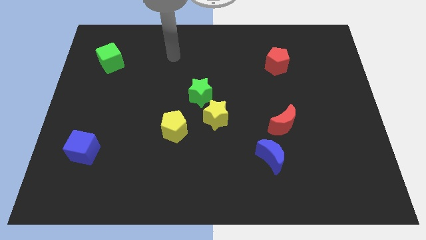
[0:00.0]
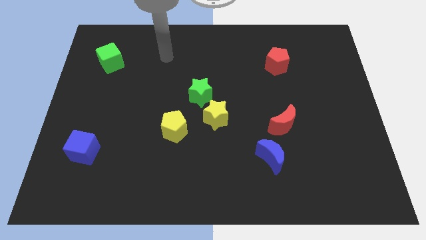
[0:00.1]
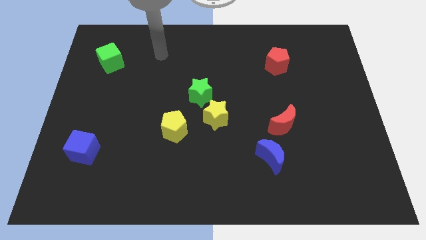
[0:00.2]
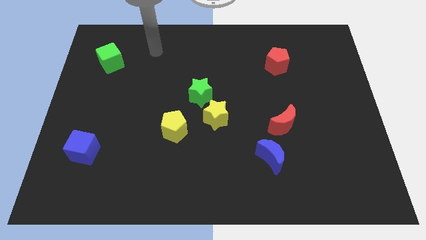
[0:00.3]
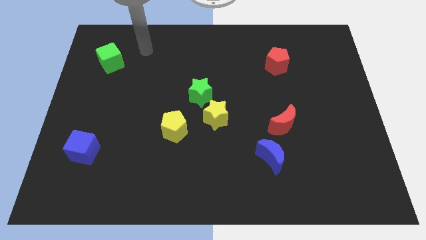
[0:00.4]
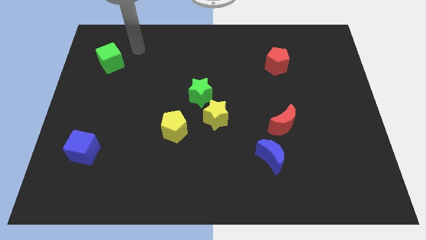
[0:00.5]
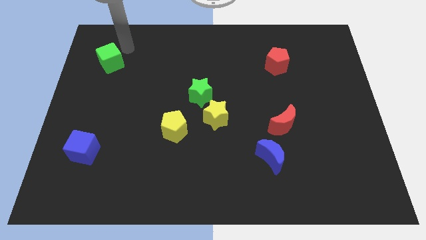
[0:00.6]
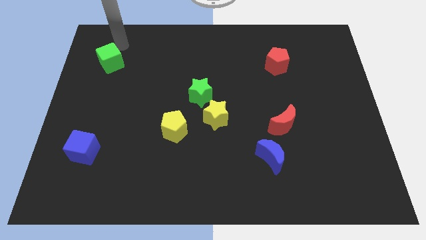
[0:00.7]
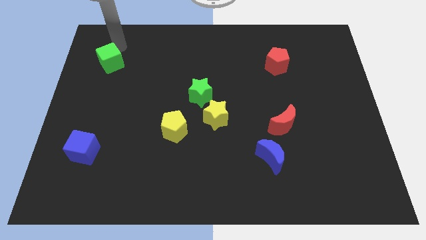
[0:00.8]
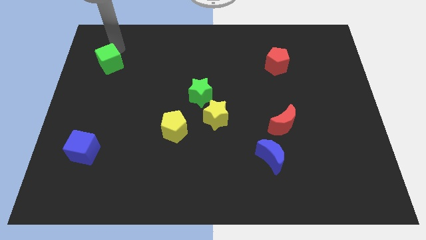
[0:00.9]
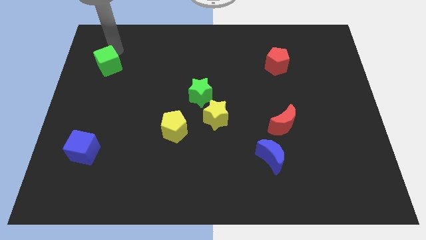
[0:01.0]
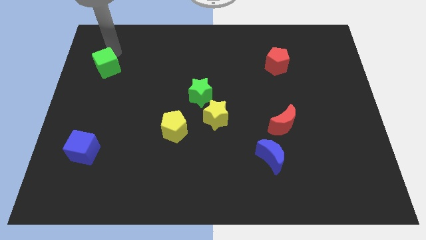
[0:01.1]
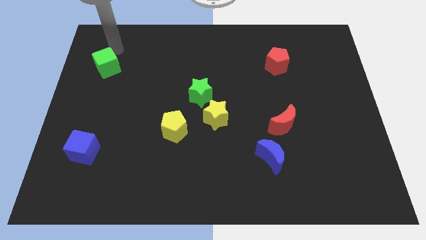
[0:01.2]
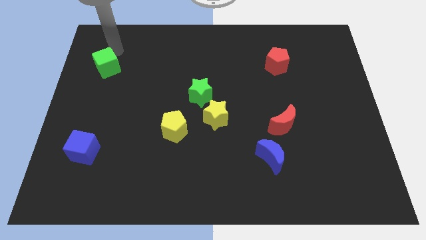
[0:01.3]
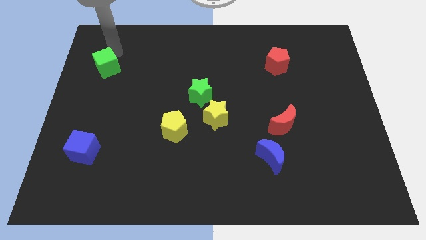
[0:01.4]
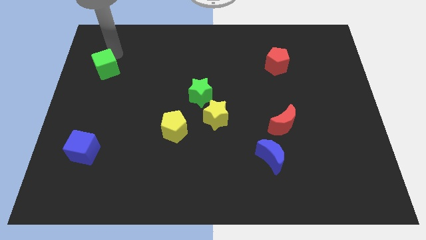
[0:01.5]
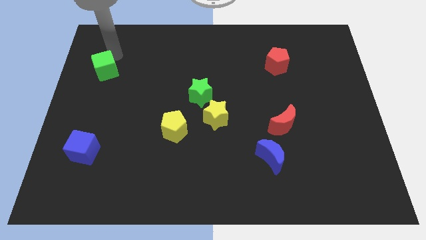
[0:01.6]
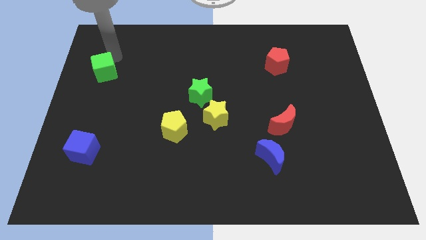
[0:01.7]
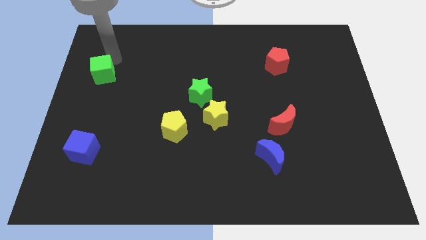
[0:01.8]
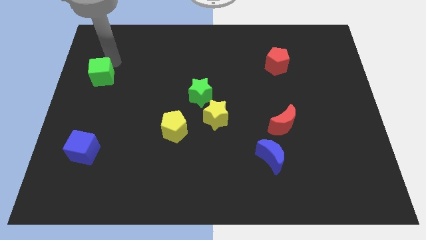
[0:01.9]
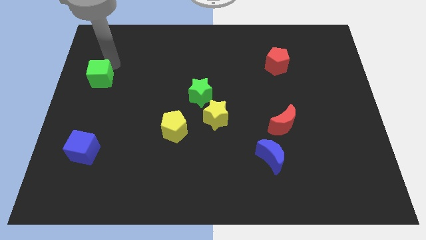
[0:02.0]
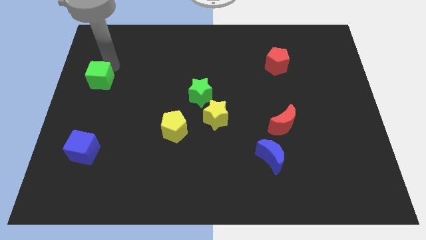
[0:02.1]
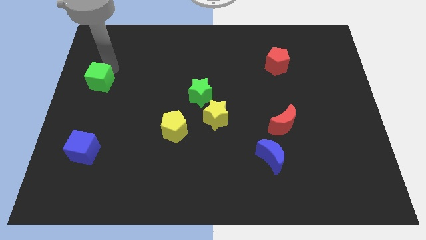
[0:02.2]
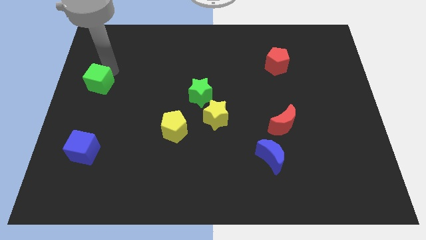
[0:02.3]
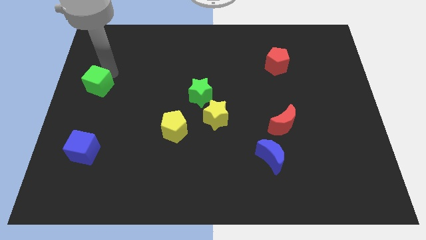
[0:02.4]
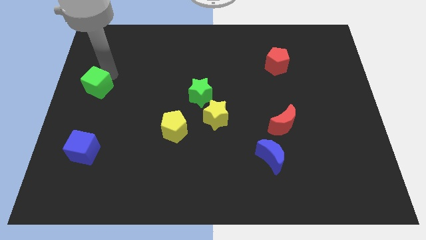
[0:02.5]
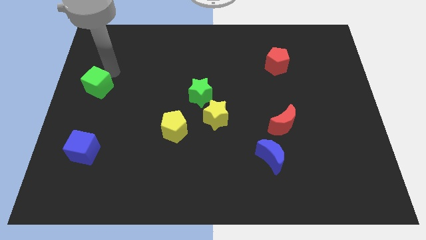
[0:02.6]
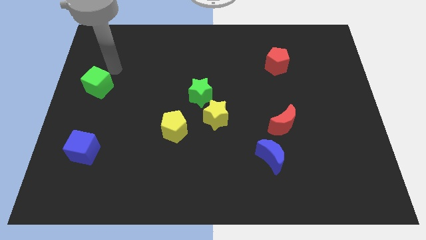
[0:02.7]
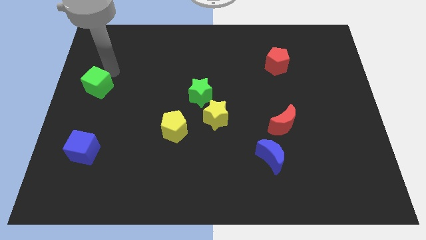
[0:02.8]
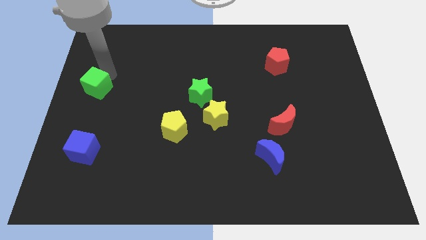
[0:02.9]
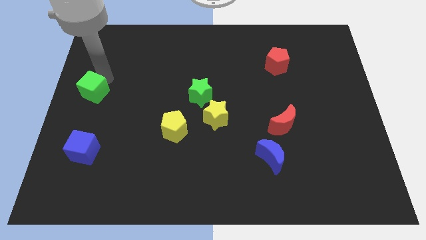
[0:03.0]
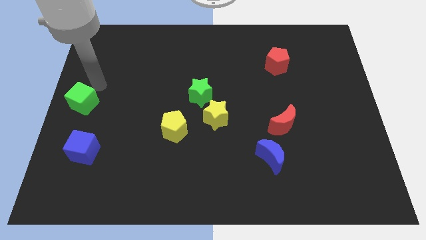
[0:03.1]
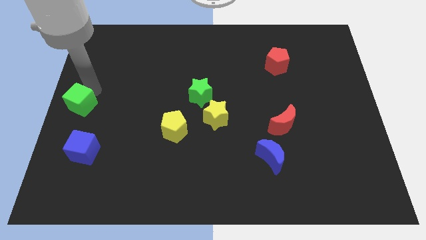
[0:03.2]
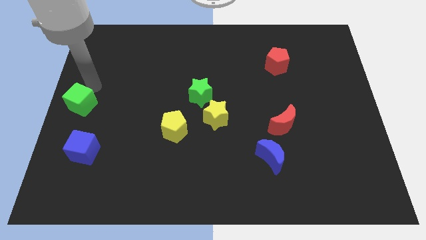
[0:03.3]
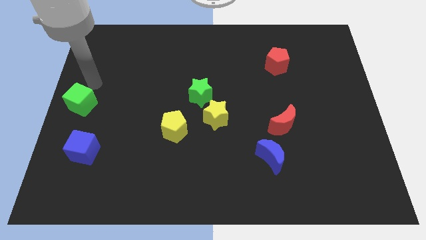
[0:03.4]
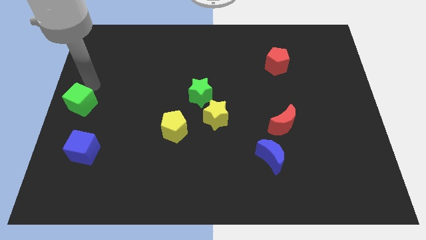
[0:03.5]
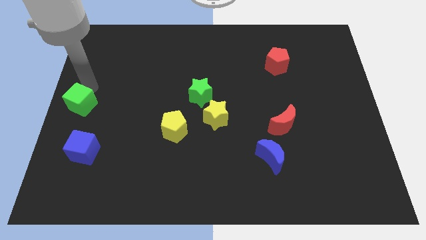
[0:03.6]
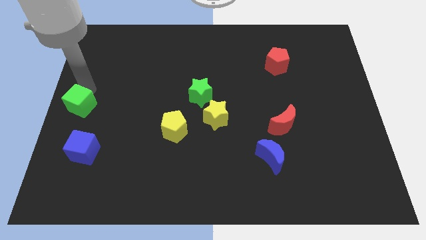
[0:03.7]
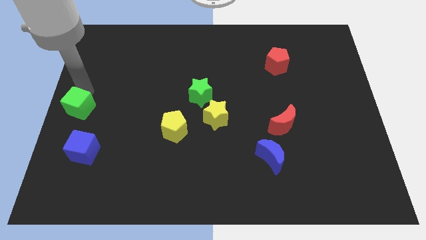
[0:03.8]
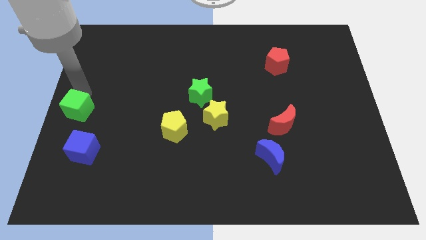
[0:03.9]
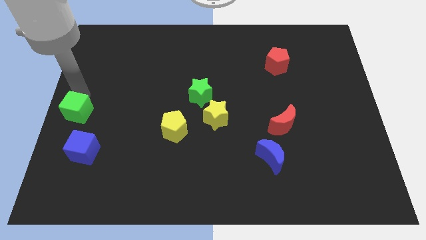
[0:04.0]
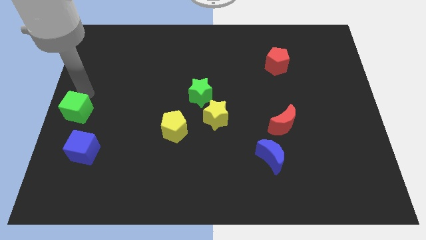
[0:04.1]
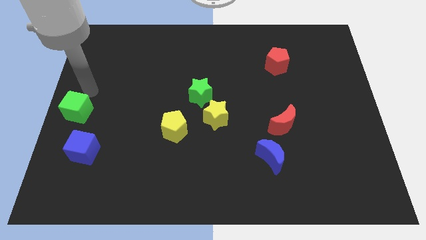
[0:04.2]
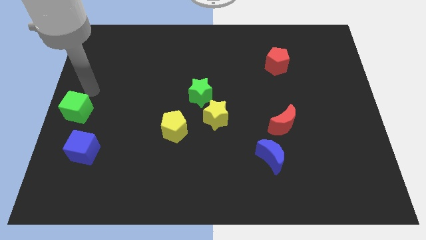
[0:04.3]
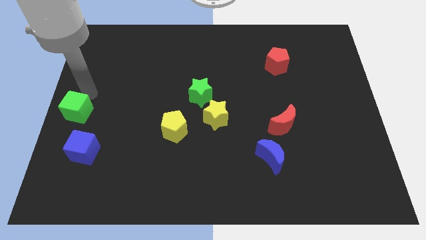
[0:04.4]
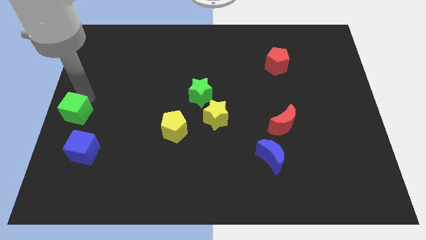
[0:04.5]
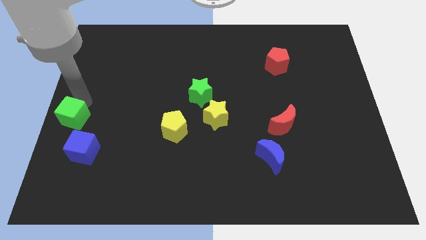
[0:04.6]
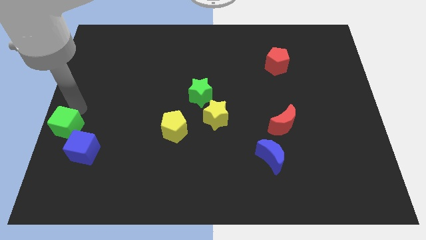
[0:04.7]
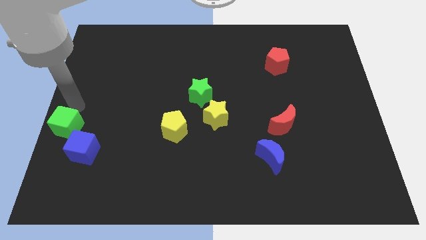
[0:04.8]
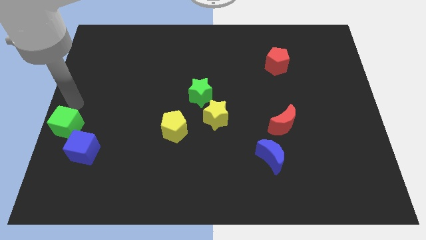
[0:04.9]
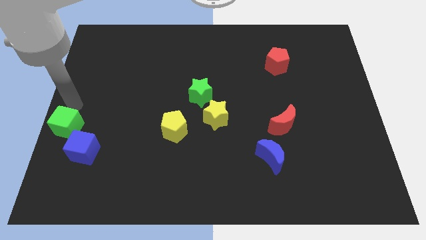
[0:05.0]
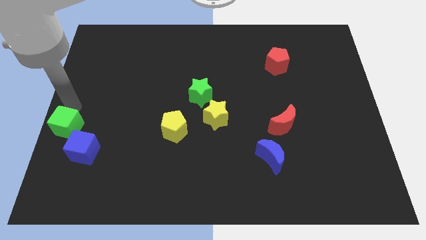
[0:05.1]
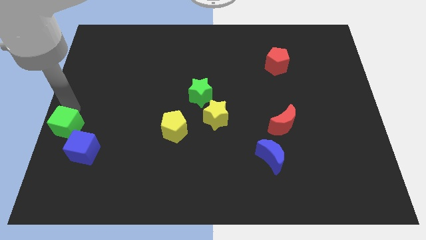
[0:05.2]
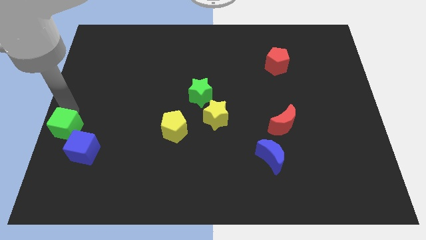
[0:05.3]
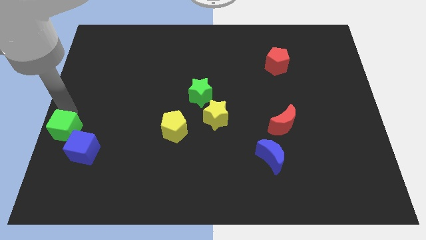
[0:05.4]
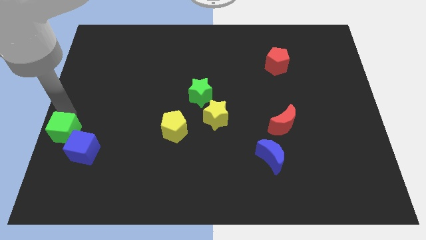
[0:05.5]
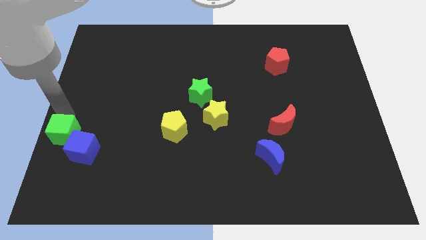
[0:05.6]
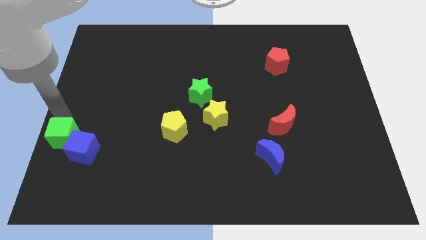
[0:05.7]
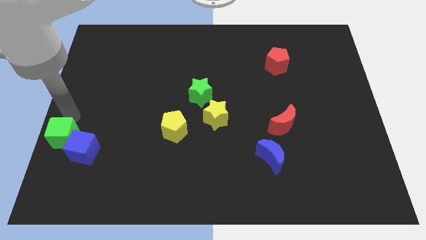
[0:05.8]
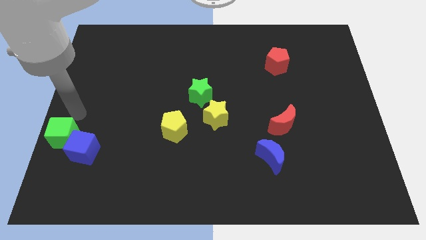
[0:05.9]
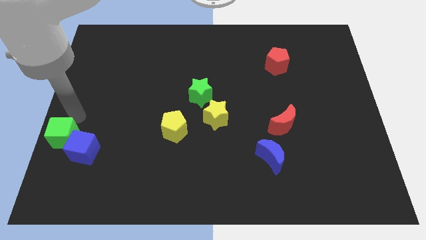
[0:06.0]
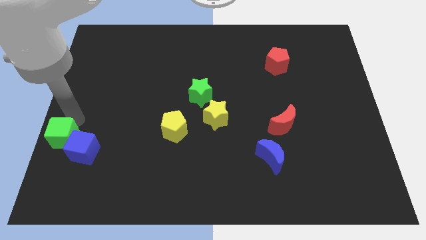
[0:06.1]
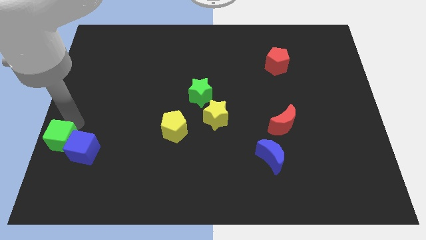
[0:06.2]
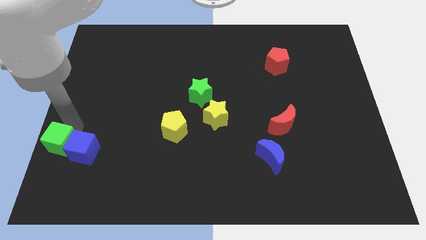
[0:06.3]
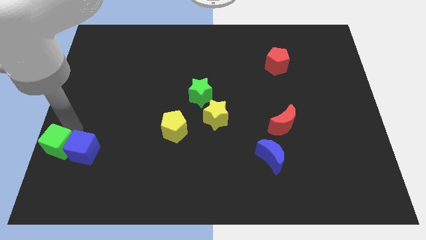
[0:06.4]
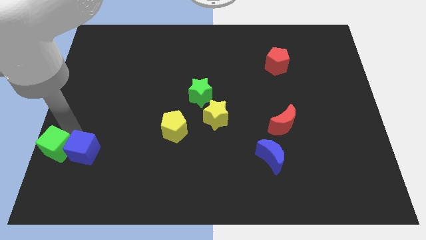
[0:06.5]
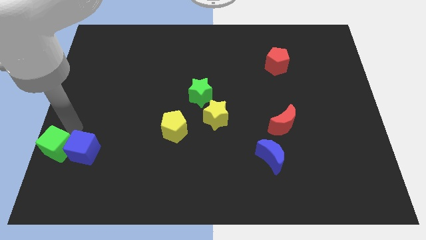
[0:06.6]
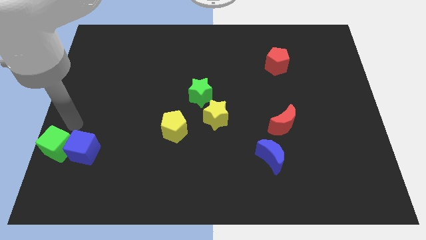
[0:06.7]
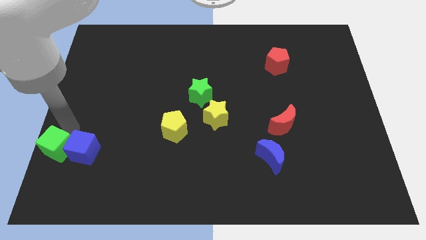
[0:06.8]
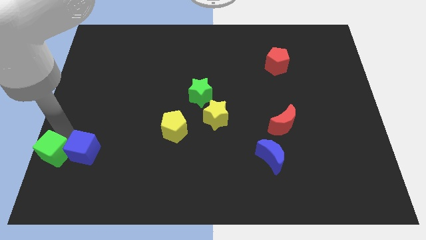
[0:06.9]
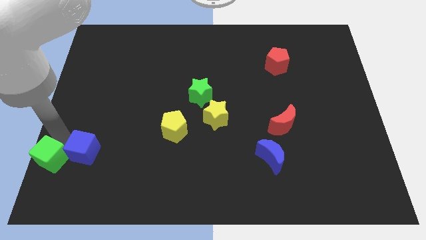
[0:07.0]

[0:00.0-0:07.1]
push the green cube to the lower left corner
